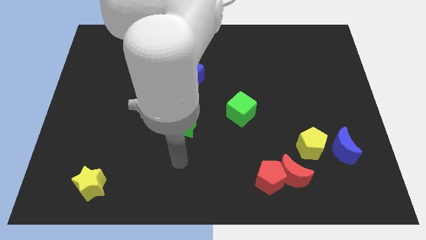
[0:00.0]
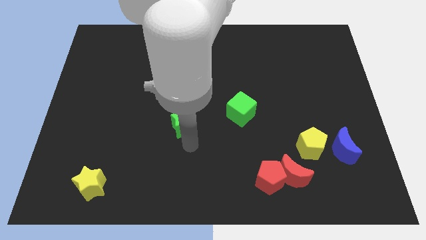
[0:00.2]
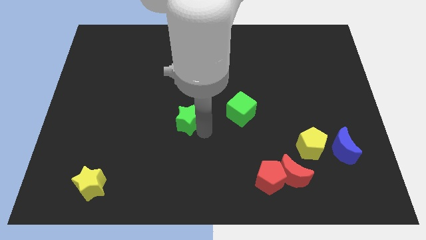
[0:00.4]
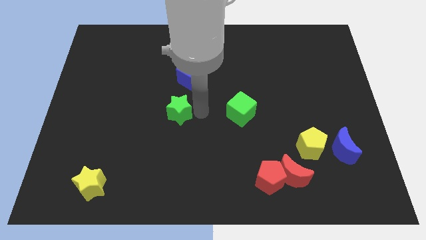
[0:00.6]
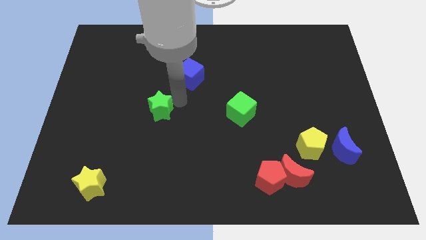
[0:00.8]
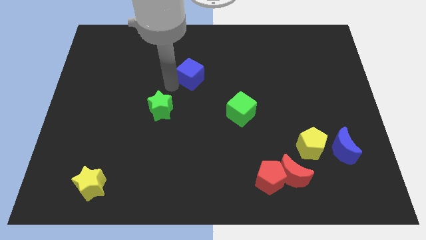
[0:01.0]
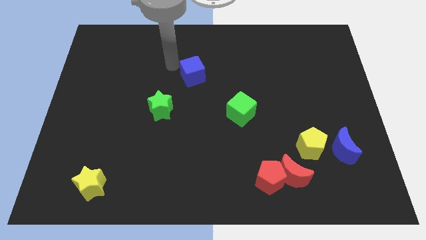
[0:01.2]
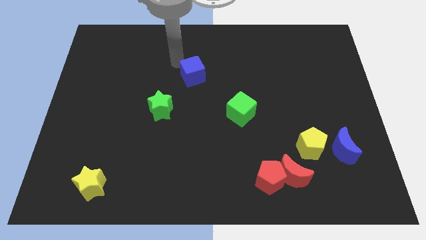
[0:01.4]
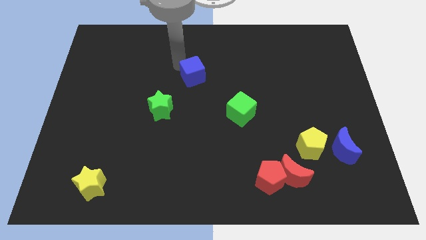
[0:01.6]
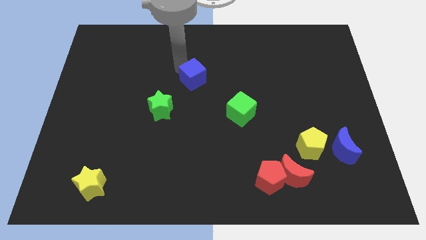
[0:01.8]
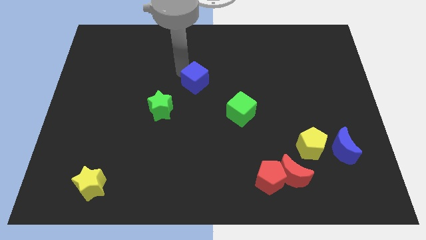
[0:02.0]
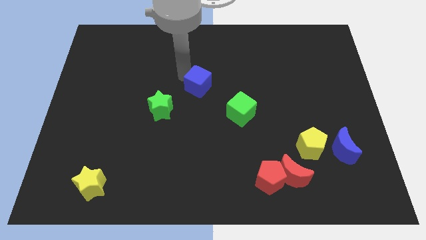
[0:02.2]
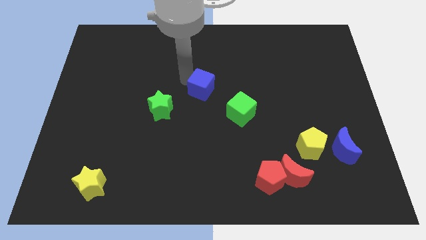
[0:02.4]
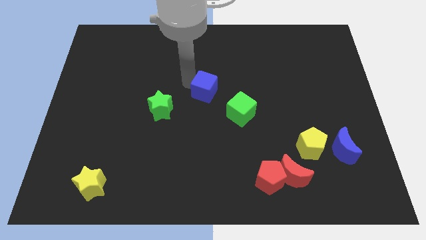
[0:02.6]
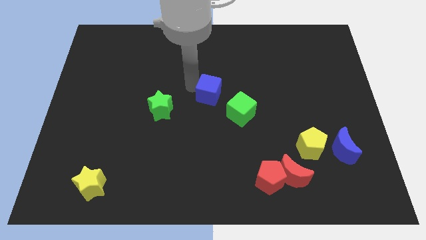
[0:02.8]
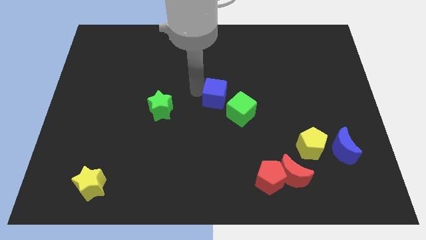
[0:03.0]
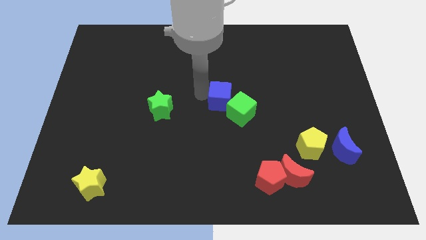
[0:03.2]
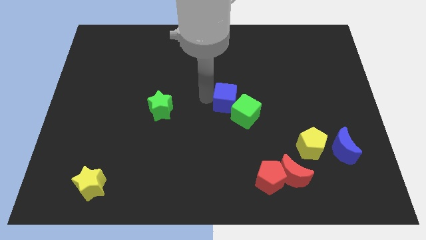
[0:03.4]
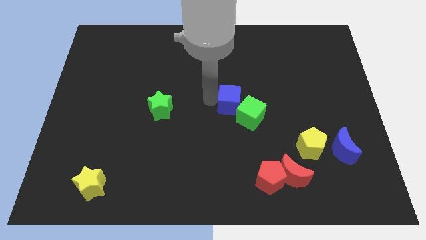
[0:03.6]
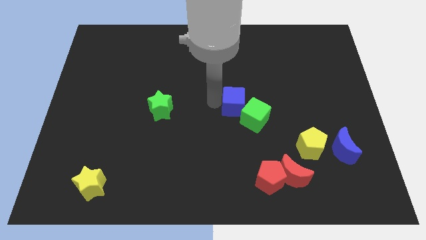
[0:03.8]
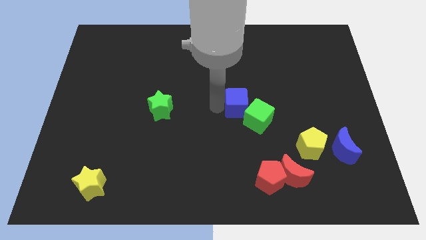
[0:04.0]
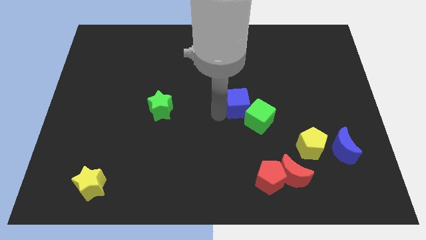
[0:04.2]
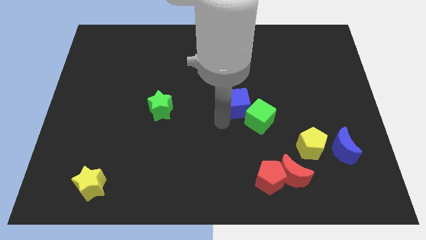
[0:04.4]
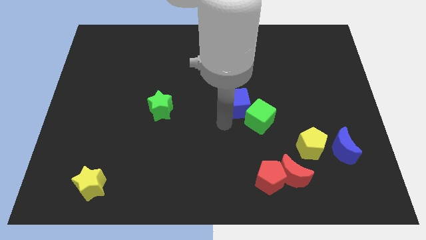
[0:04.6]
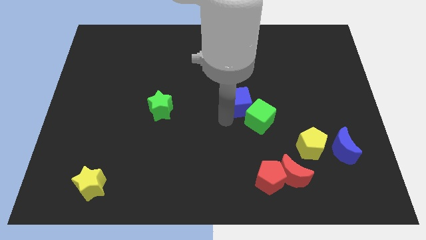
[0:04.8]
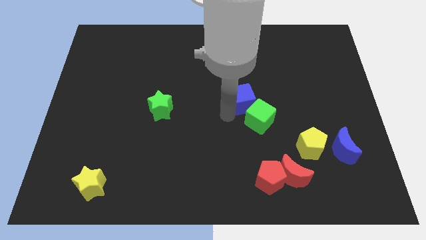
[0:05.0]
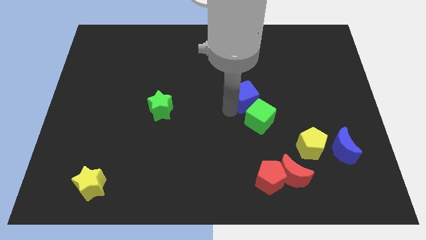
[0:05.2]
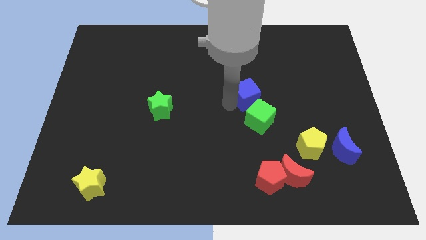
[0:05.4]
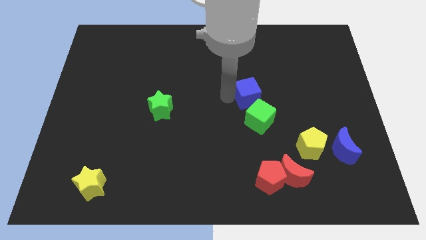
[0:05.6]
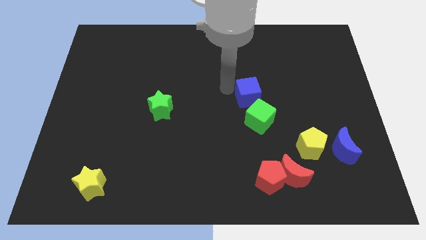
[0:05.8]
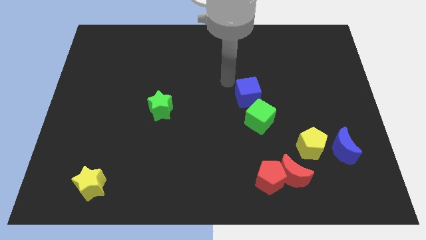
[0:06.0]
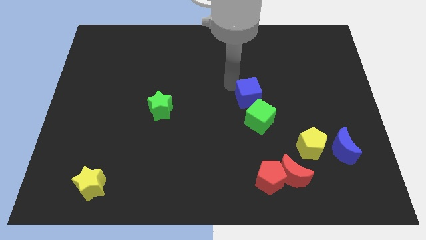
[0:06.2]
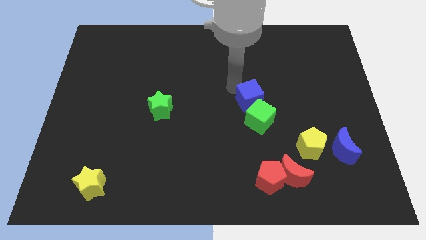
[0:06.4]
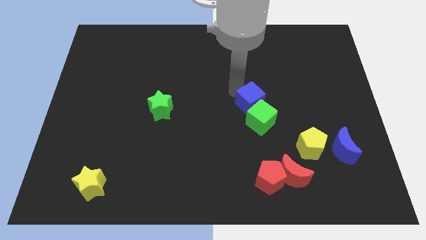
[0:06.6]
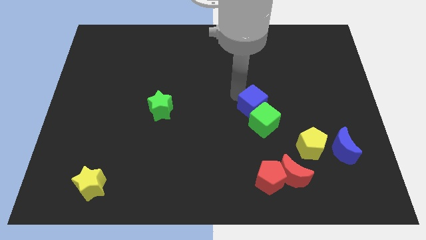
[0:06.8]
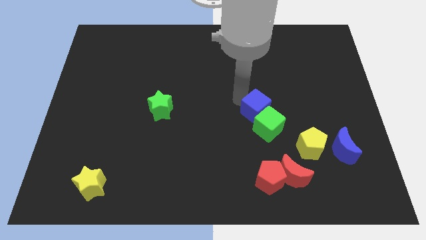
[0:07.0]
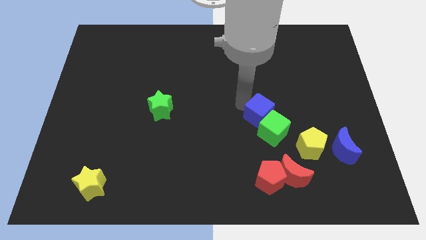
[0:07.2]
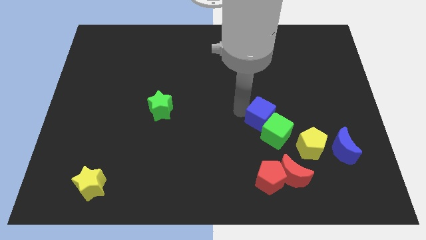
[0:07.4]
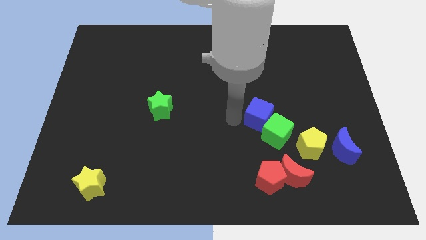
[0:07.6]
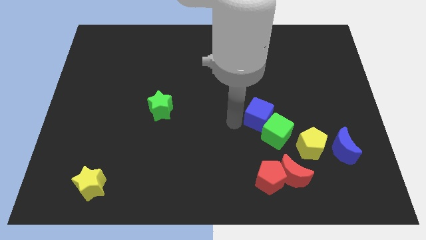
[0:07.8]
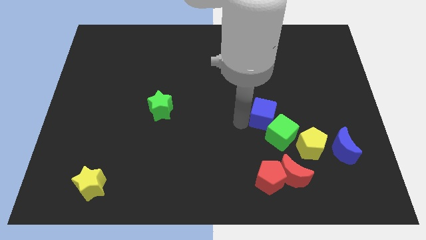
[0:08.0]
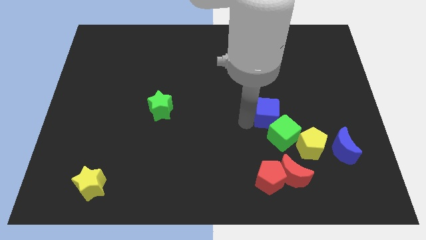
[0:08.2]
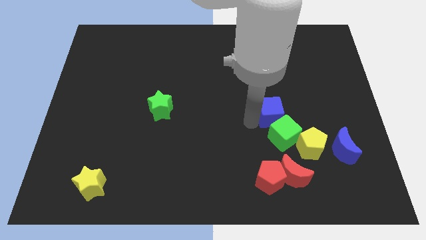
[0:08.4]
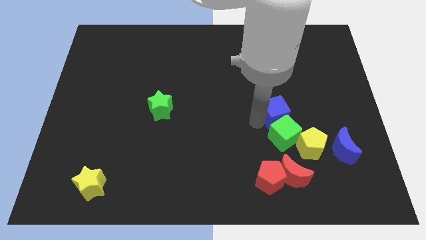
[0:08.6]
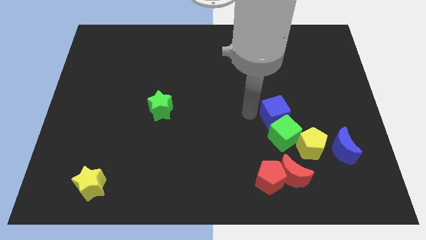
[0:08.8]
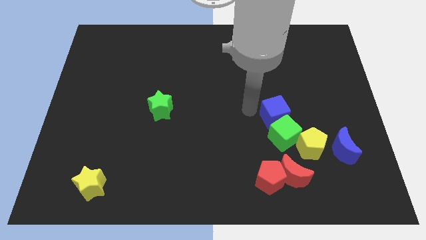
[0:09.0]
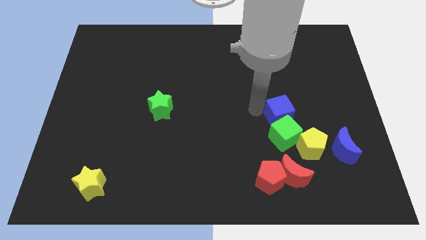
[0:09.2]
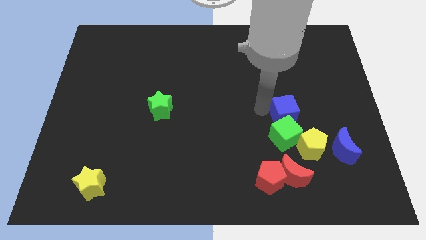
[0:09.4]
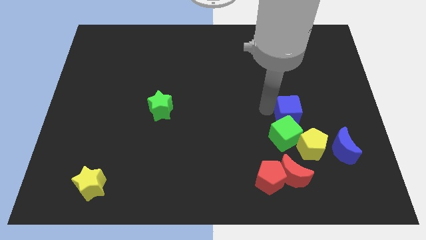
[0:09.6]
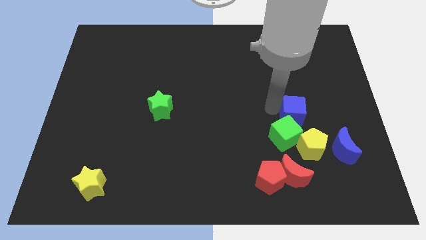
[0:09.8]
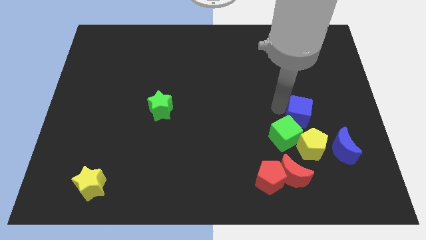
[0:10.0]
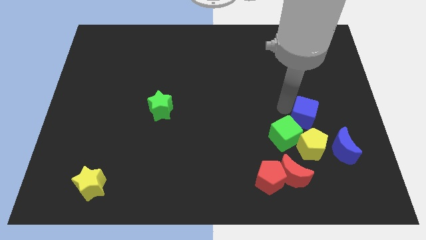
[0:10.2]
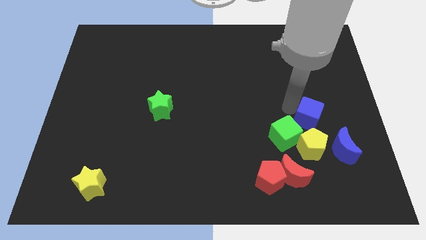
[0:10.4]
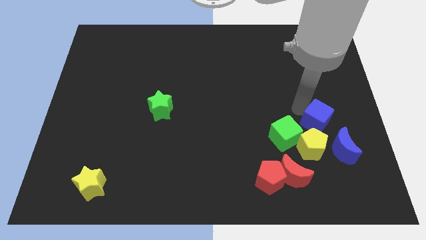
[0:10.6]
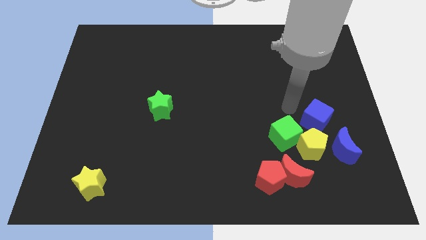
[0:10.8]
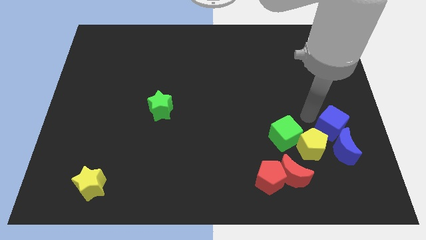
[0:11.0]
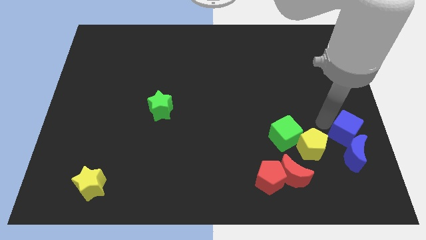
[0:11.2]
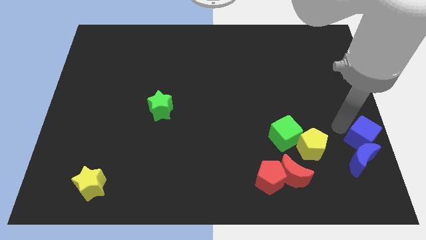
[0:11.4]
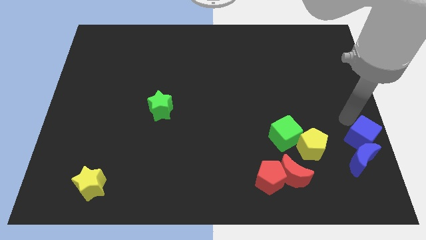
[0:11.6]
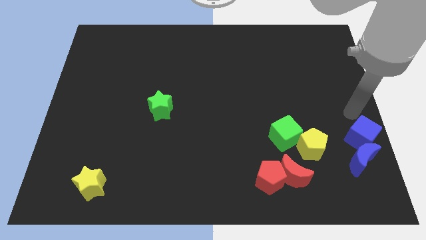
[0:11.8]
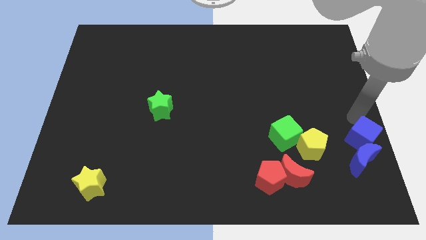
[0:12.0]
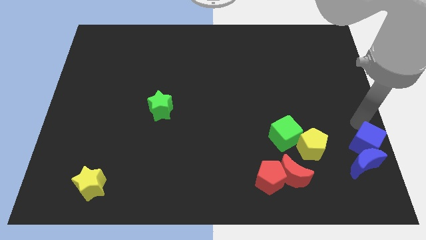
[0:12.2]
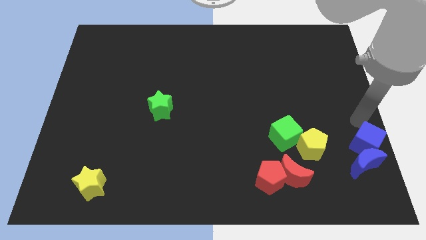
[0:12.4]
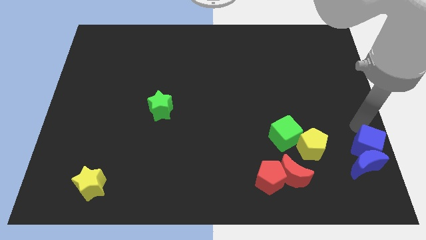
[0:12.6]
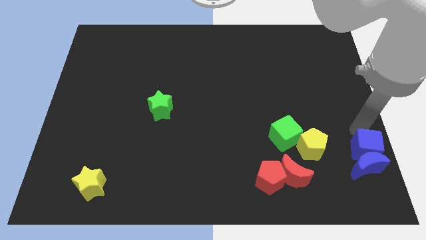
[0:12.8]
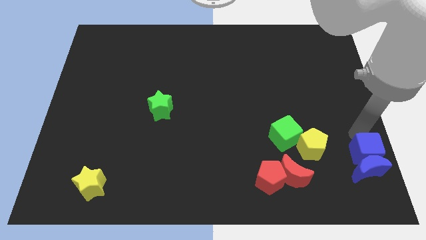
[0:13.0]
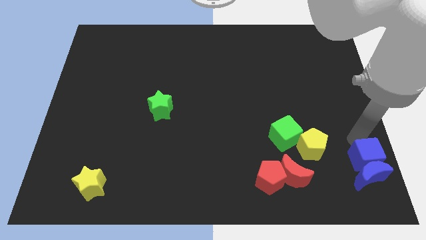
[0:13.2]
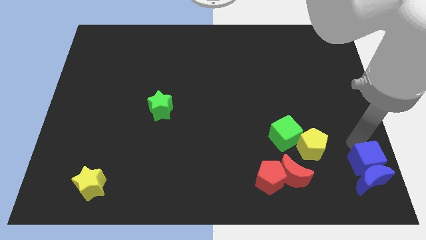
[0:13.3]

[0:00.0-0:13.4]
push the blue cube to the bottom right
